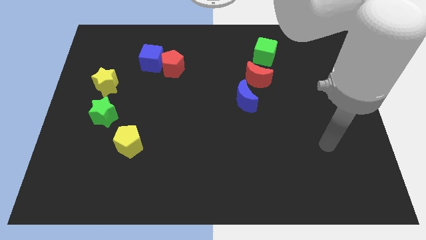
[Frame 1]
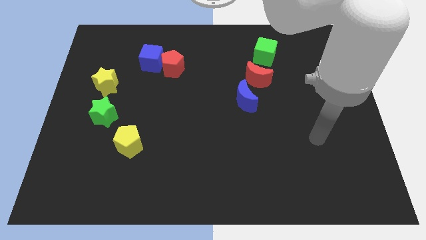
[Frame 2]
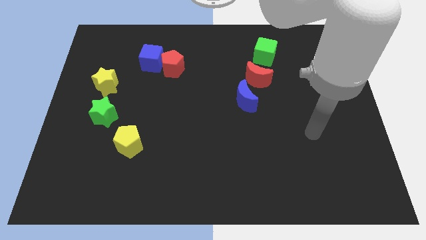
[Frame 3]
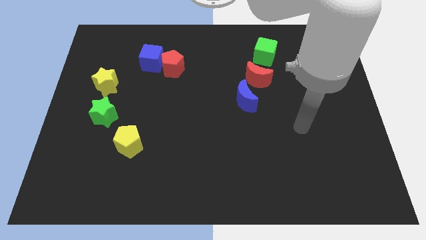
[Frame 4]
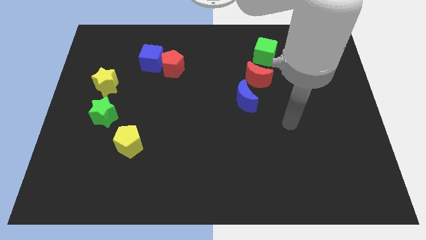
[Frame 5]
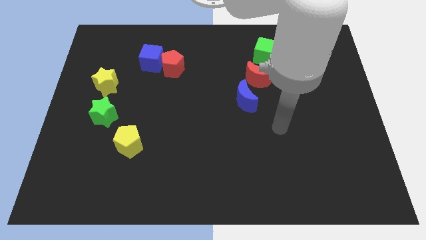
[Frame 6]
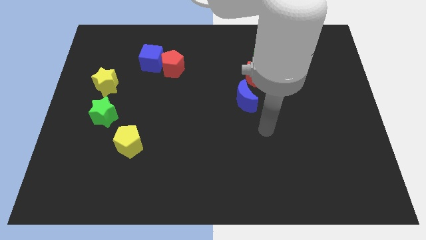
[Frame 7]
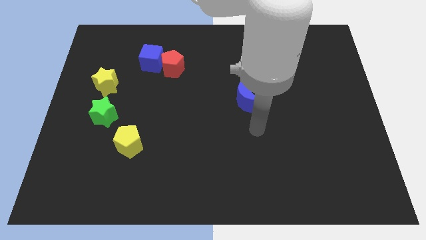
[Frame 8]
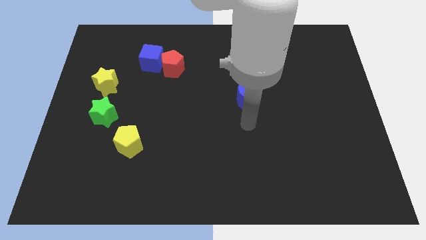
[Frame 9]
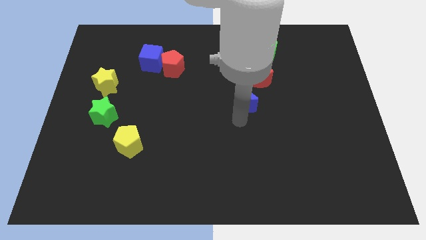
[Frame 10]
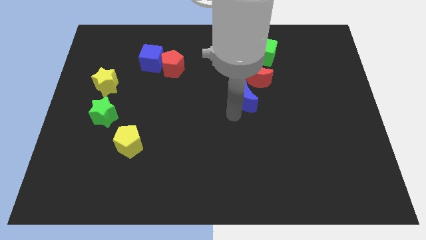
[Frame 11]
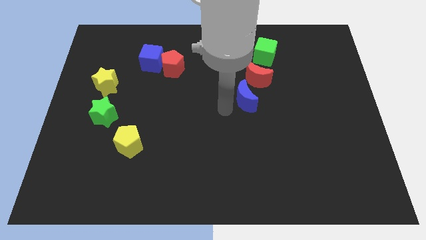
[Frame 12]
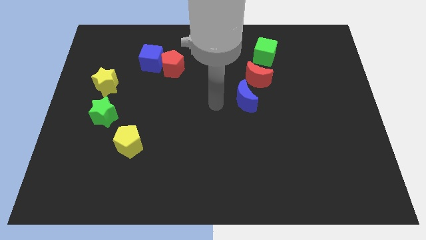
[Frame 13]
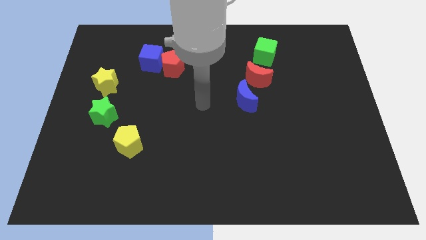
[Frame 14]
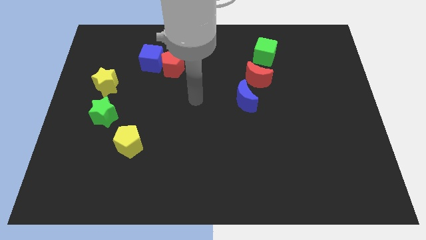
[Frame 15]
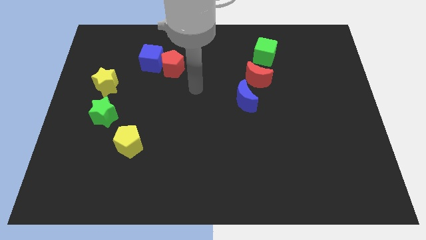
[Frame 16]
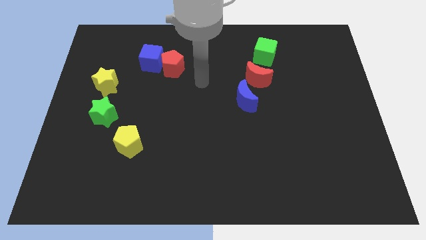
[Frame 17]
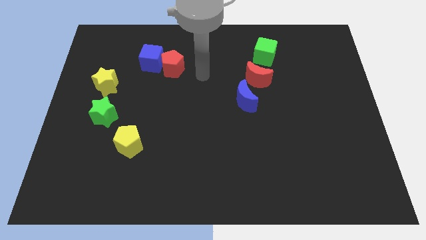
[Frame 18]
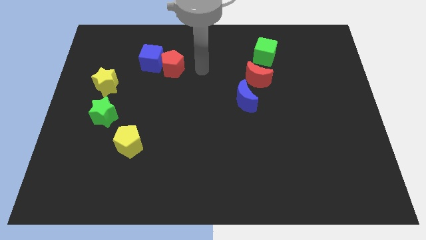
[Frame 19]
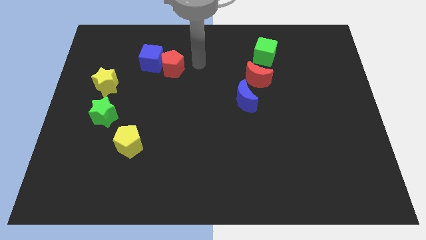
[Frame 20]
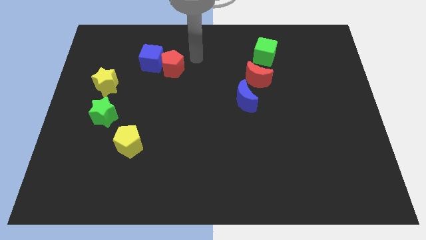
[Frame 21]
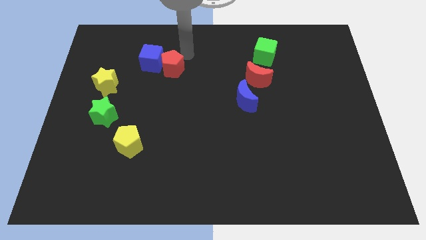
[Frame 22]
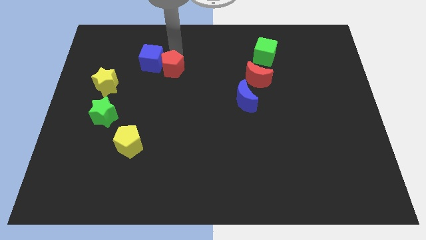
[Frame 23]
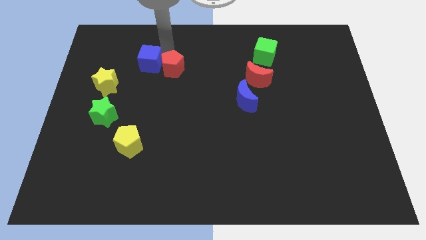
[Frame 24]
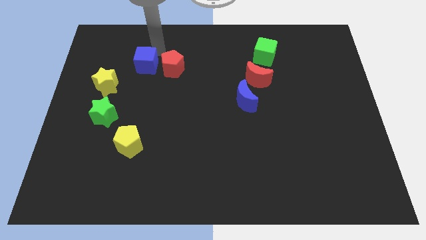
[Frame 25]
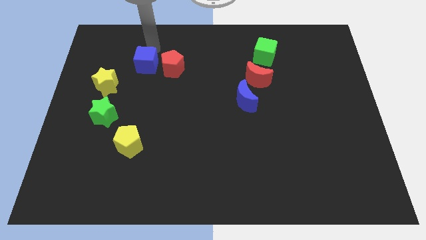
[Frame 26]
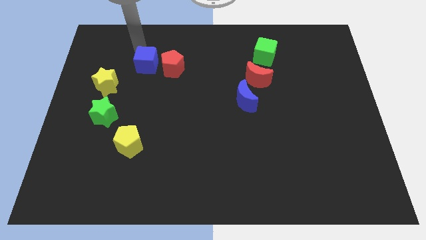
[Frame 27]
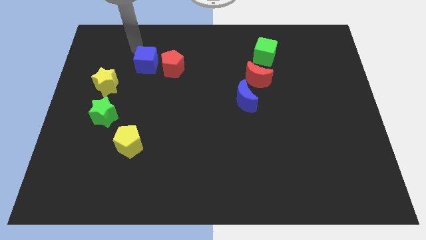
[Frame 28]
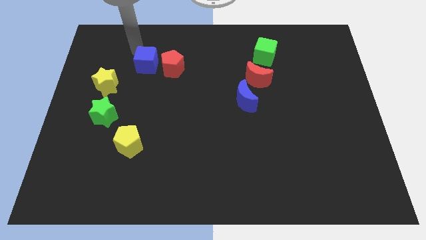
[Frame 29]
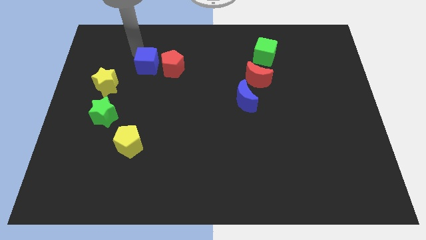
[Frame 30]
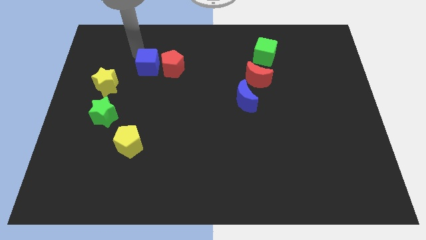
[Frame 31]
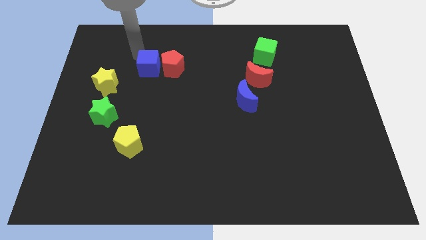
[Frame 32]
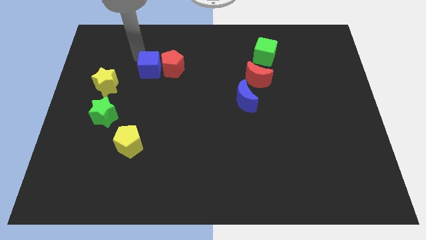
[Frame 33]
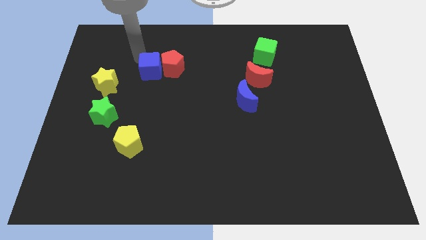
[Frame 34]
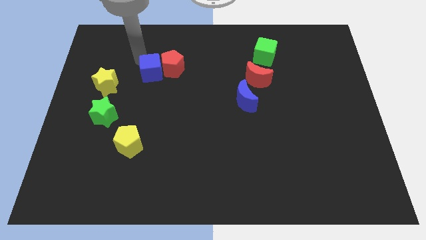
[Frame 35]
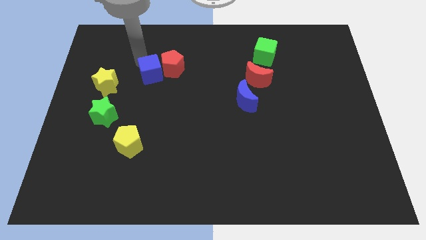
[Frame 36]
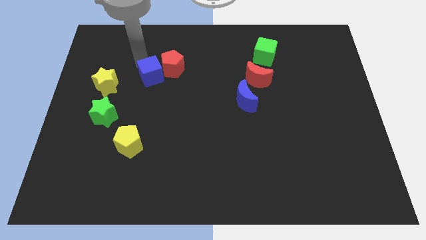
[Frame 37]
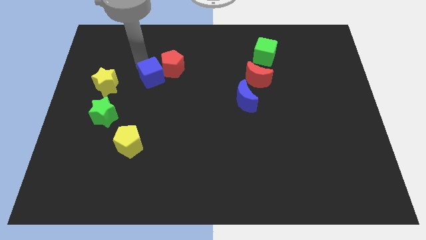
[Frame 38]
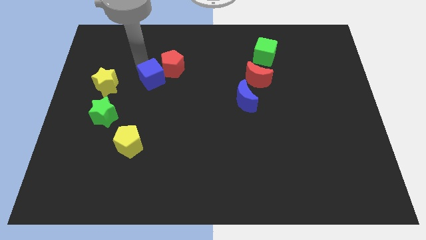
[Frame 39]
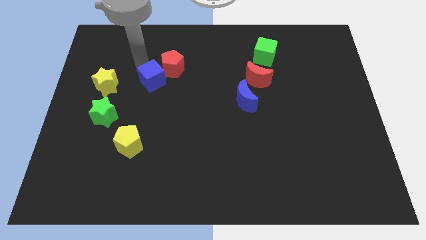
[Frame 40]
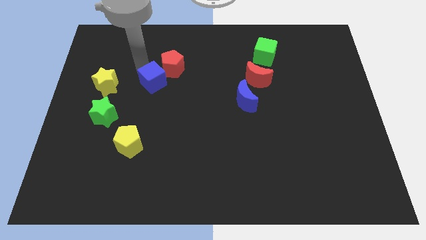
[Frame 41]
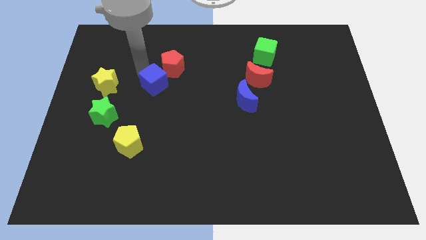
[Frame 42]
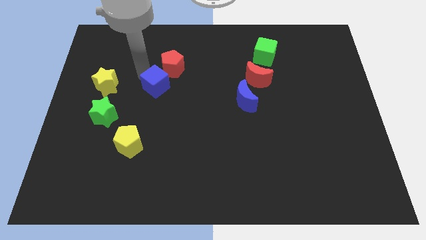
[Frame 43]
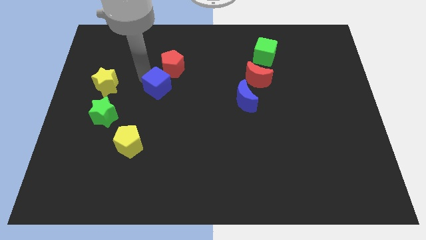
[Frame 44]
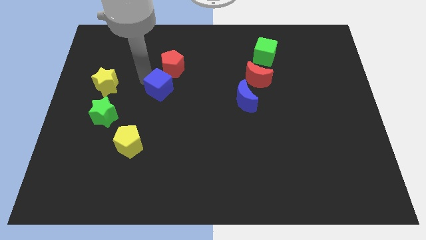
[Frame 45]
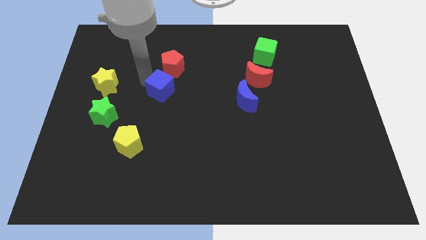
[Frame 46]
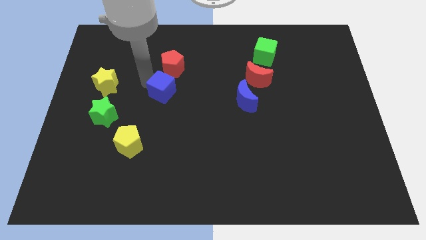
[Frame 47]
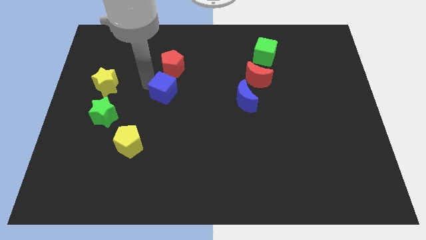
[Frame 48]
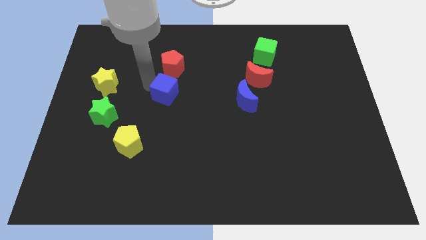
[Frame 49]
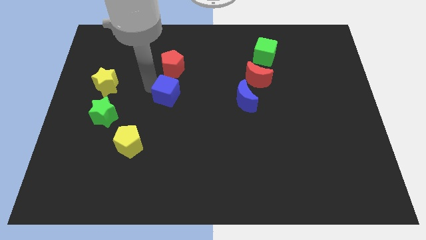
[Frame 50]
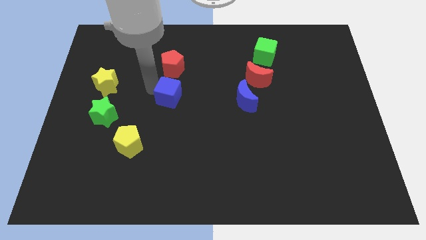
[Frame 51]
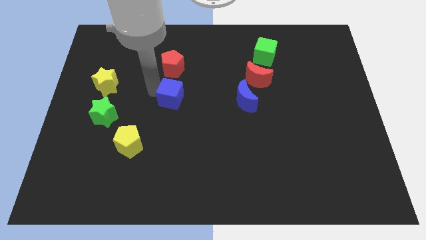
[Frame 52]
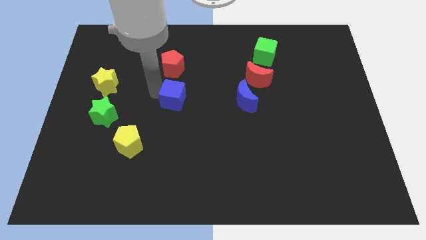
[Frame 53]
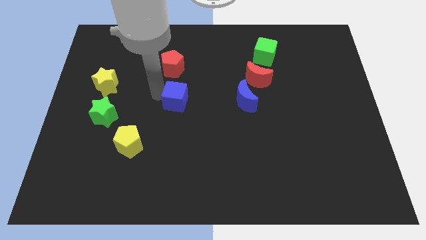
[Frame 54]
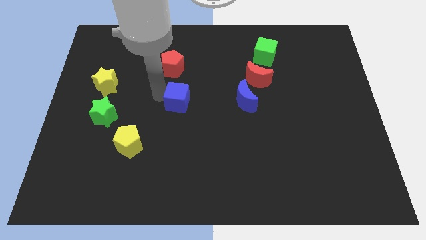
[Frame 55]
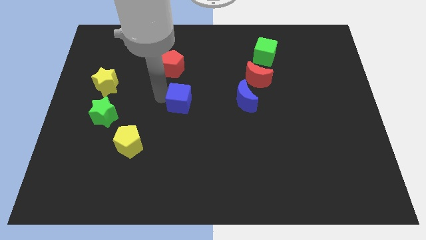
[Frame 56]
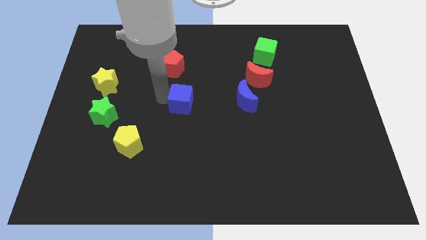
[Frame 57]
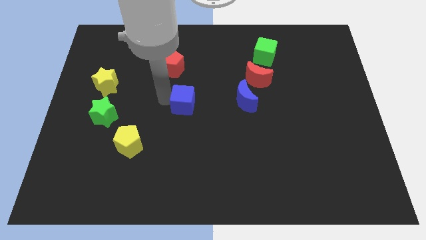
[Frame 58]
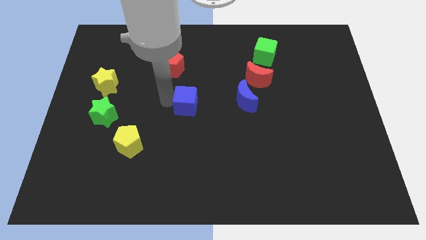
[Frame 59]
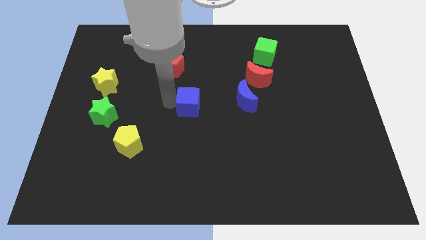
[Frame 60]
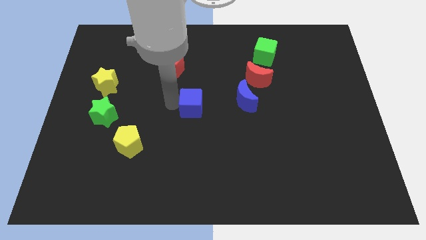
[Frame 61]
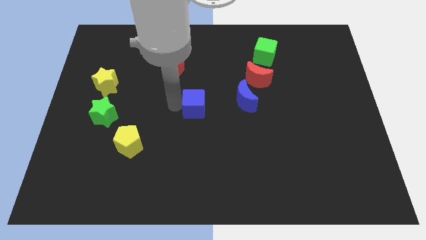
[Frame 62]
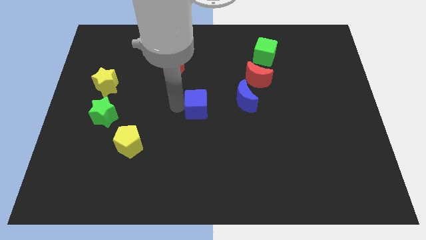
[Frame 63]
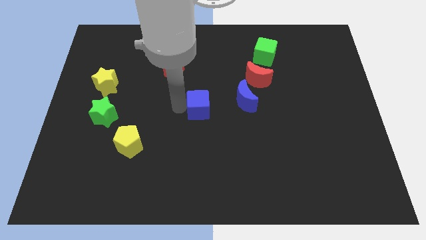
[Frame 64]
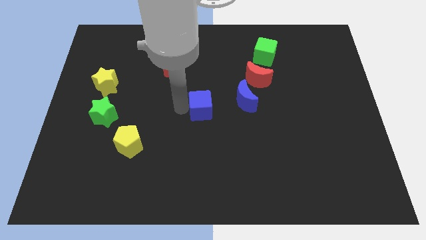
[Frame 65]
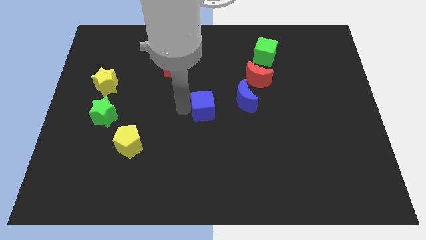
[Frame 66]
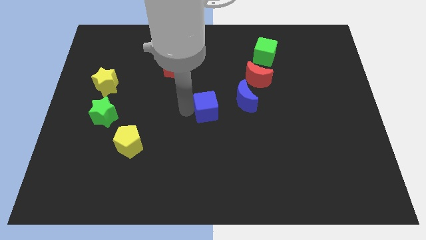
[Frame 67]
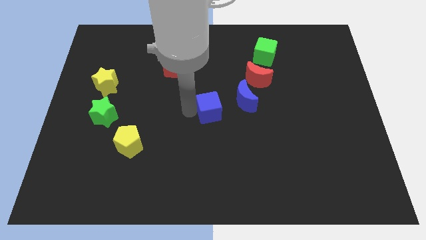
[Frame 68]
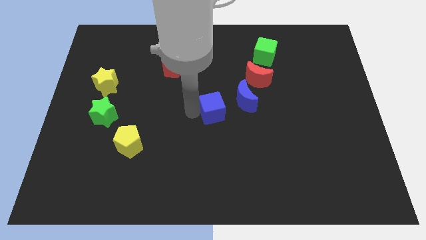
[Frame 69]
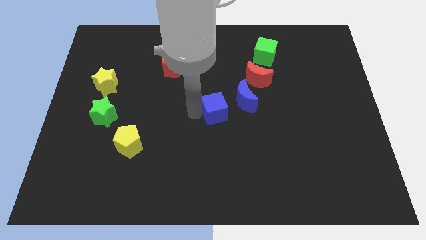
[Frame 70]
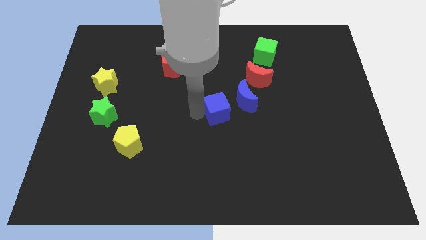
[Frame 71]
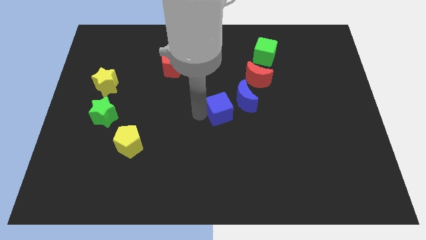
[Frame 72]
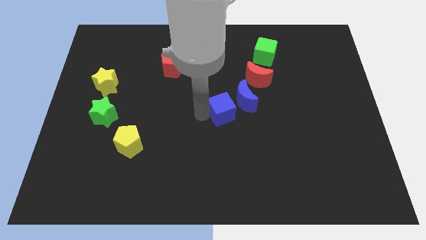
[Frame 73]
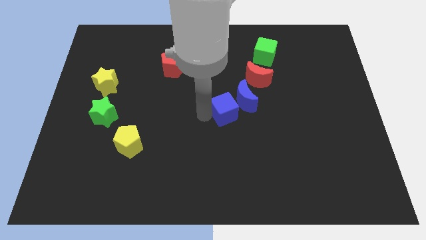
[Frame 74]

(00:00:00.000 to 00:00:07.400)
move the blue cube towards the blue moon
